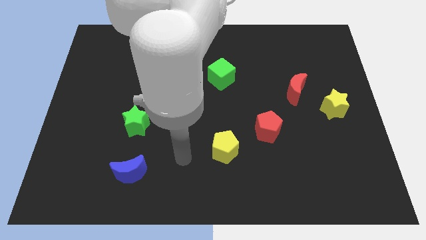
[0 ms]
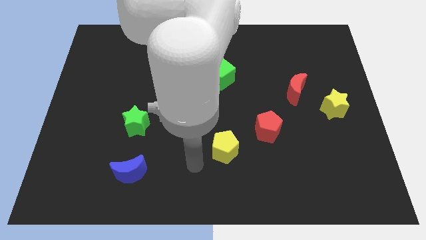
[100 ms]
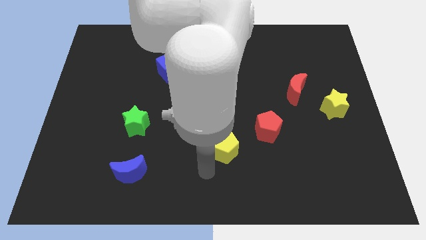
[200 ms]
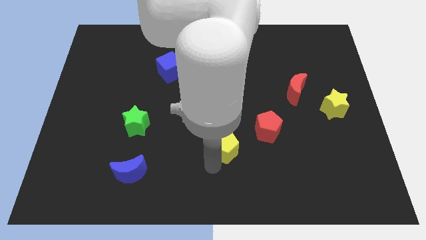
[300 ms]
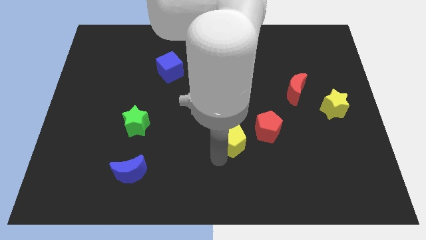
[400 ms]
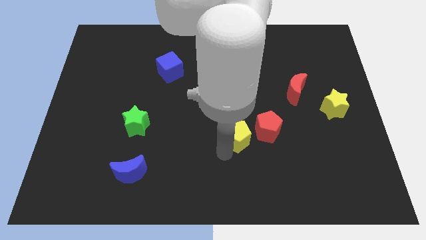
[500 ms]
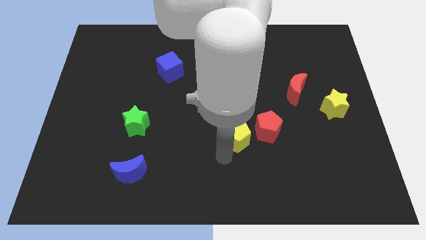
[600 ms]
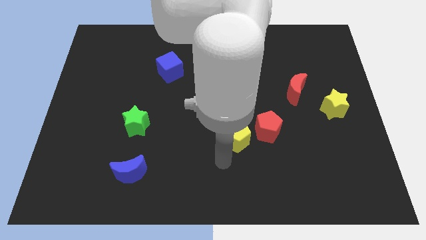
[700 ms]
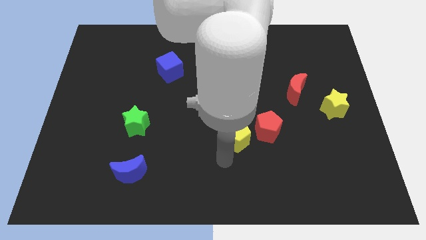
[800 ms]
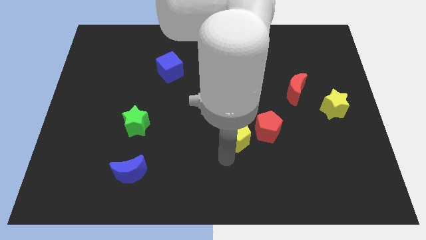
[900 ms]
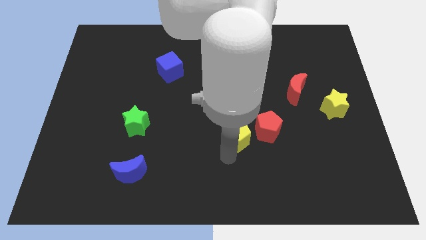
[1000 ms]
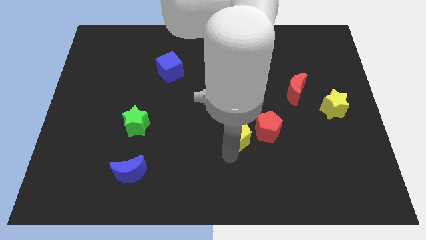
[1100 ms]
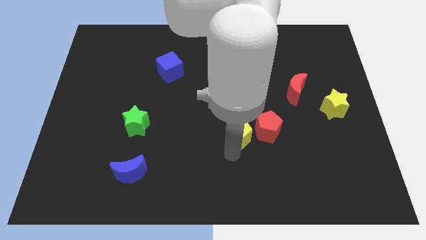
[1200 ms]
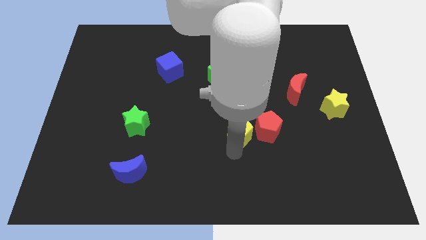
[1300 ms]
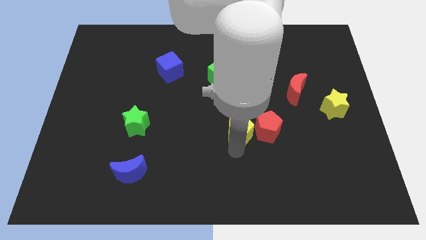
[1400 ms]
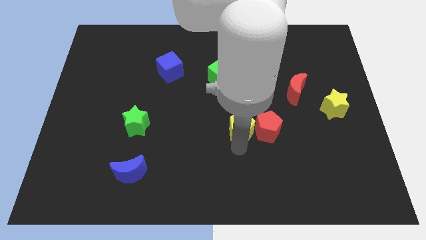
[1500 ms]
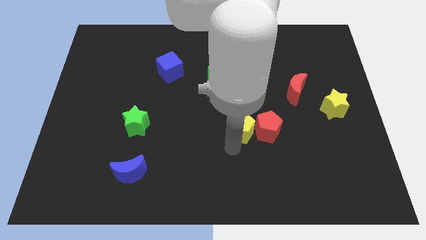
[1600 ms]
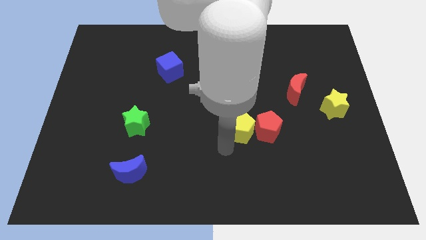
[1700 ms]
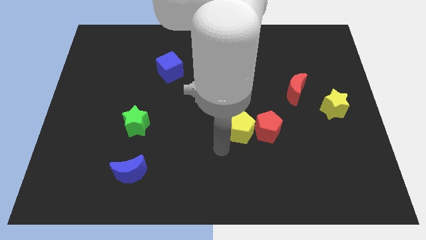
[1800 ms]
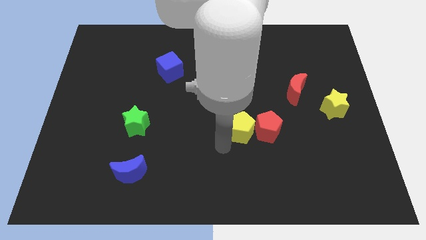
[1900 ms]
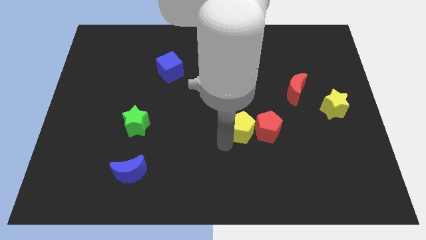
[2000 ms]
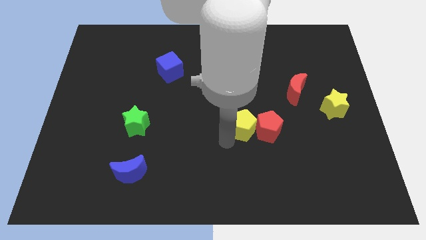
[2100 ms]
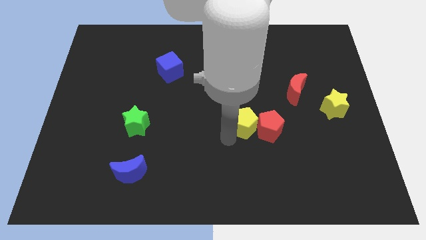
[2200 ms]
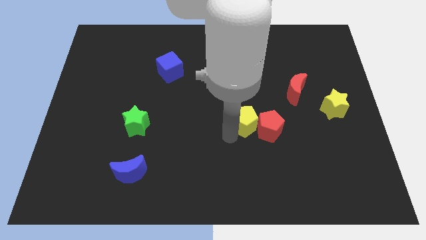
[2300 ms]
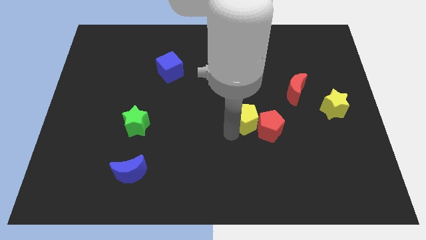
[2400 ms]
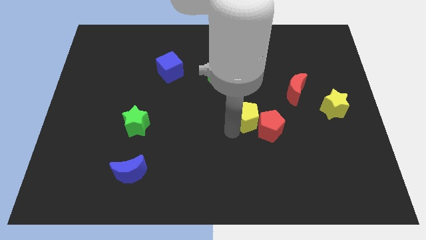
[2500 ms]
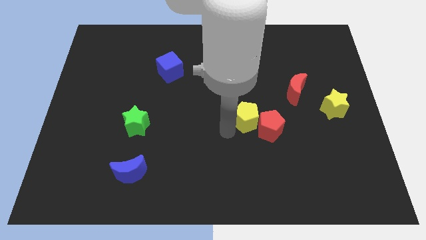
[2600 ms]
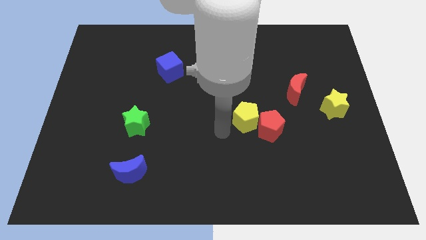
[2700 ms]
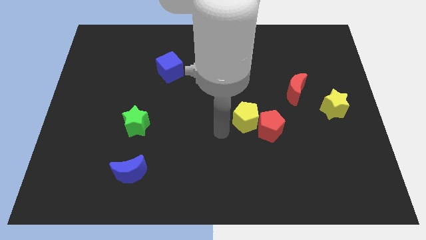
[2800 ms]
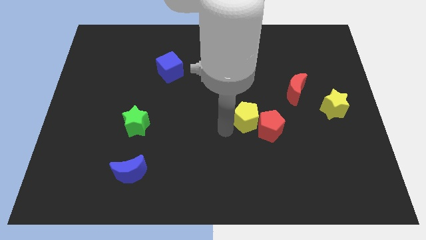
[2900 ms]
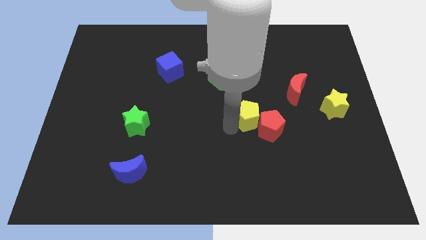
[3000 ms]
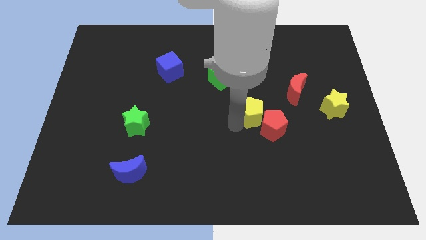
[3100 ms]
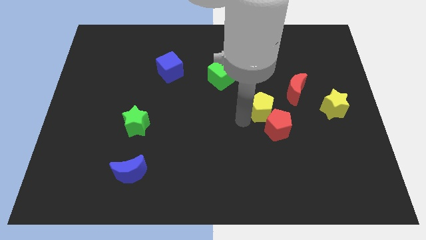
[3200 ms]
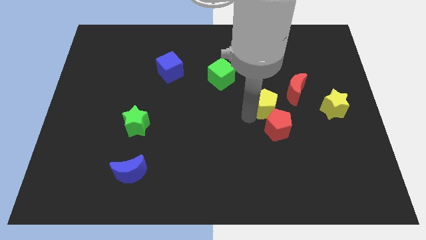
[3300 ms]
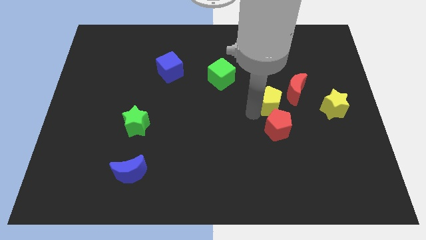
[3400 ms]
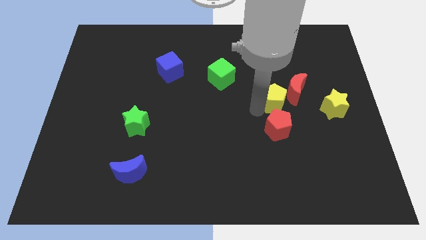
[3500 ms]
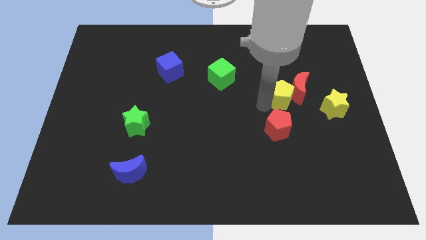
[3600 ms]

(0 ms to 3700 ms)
push the yellow pentagon upwards and right

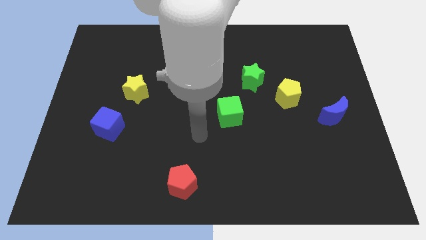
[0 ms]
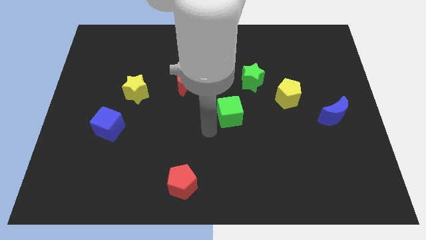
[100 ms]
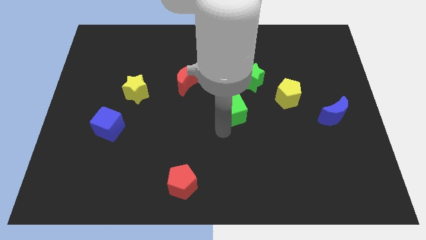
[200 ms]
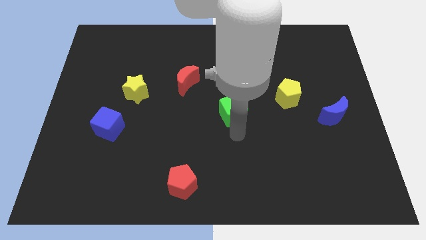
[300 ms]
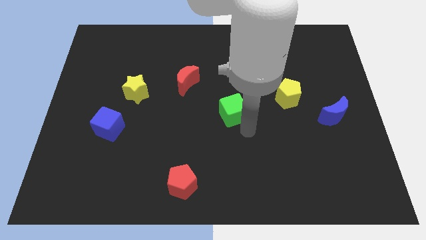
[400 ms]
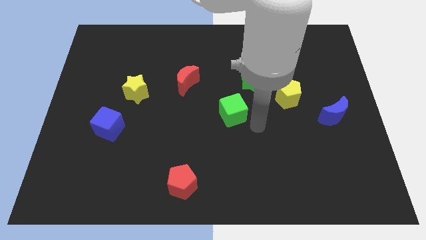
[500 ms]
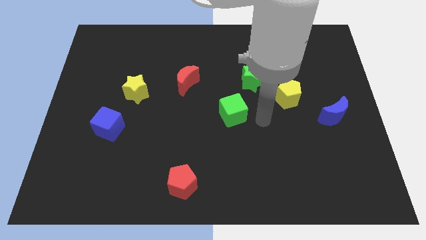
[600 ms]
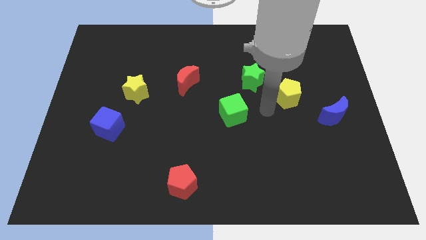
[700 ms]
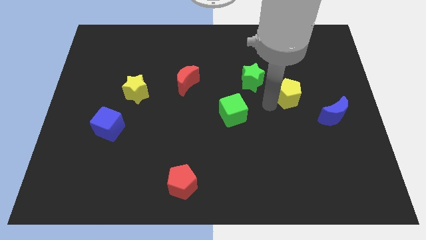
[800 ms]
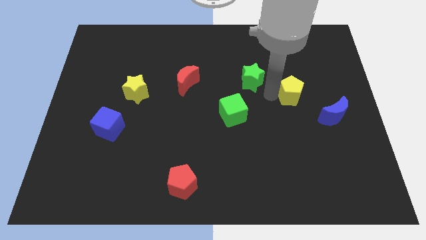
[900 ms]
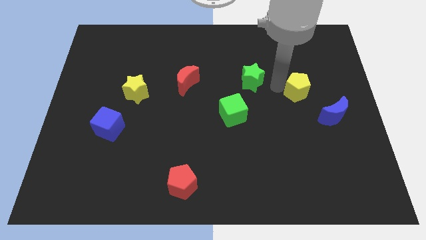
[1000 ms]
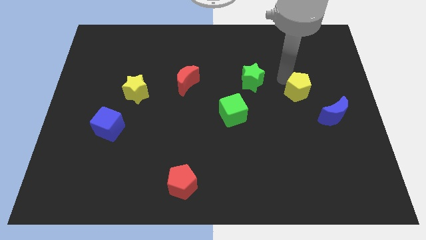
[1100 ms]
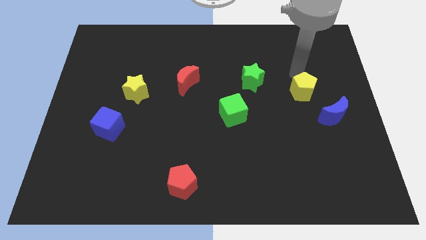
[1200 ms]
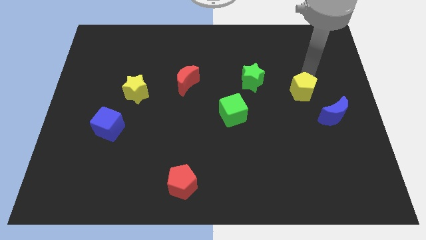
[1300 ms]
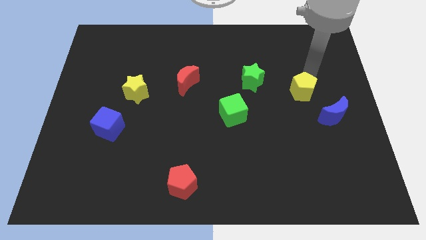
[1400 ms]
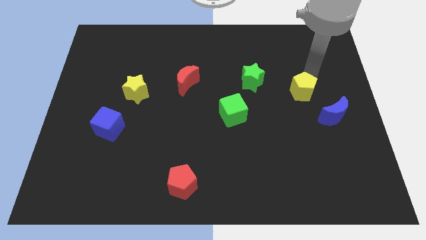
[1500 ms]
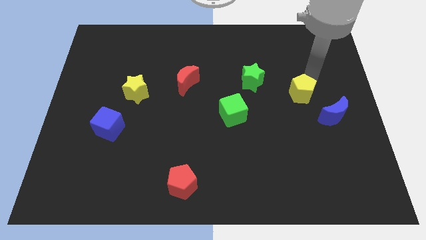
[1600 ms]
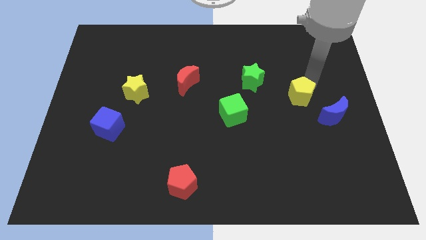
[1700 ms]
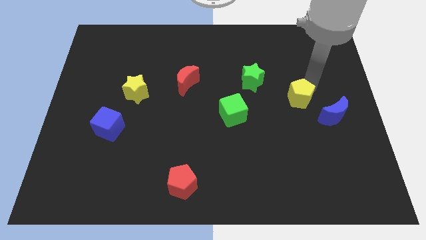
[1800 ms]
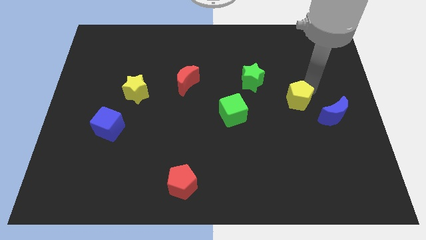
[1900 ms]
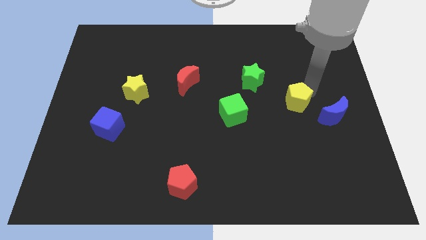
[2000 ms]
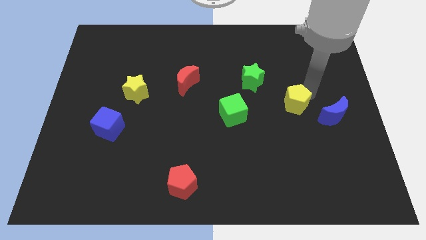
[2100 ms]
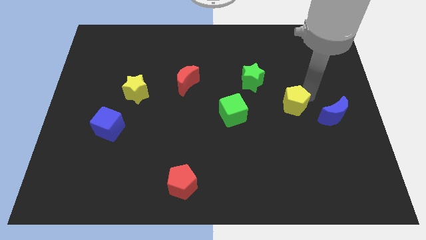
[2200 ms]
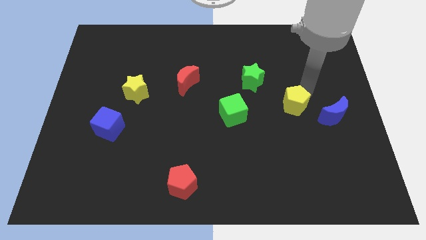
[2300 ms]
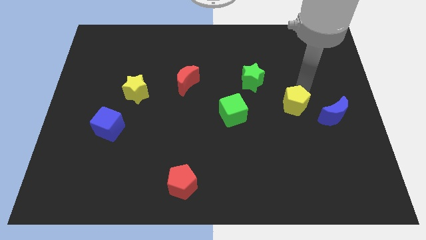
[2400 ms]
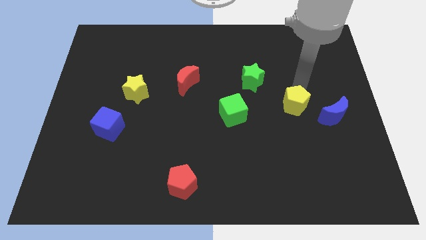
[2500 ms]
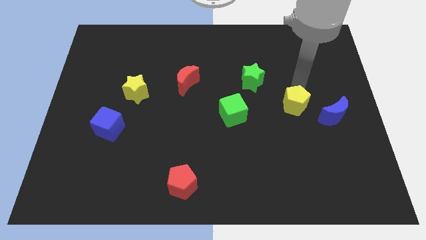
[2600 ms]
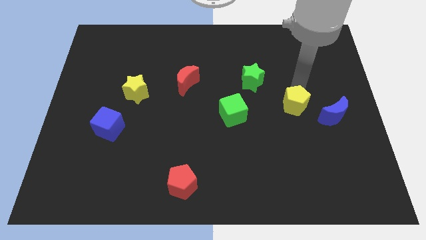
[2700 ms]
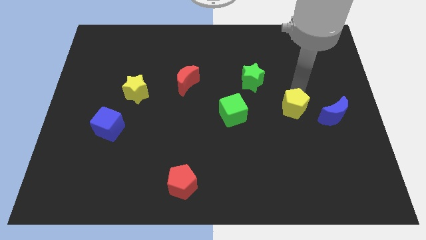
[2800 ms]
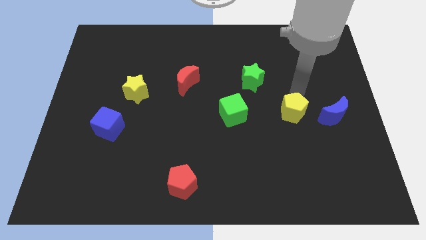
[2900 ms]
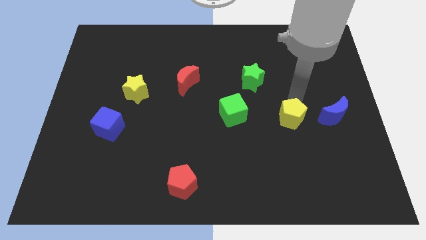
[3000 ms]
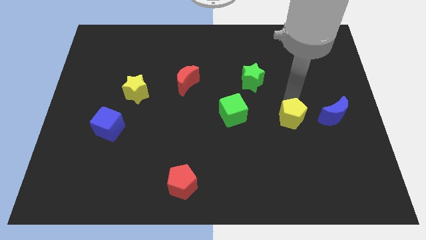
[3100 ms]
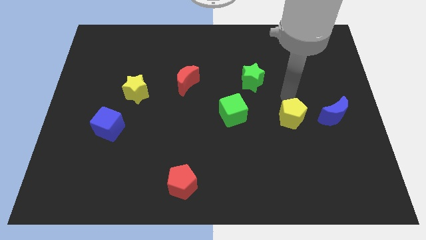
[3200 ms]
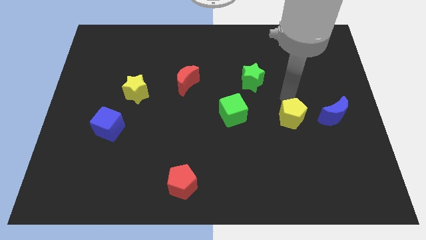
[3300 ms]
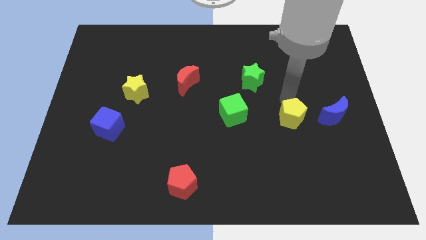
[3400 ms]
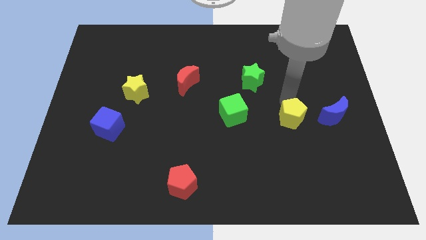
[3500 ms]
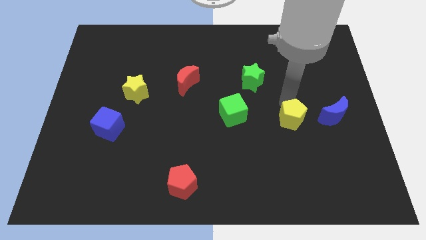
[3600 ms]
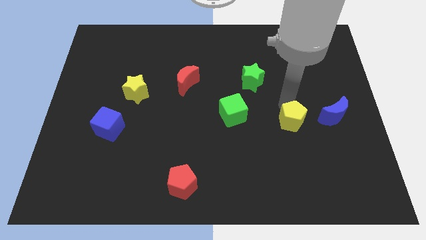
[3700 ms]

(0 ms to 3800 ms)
slide the yellow pentagon down a little bit

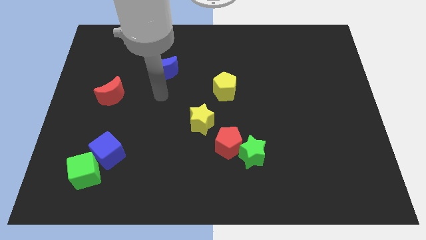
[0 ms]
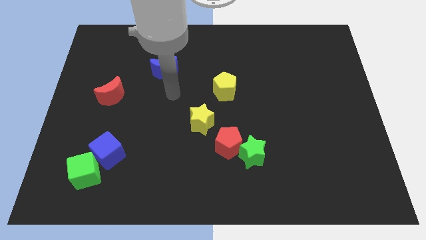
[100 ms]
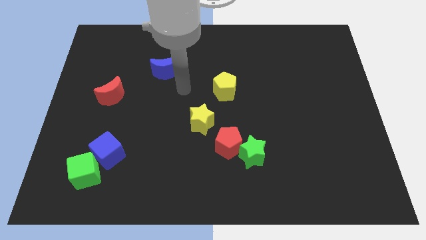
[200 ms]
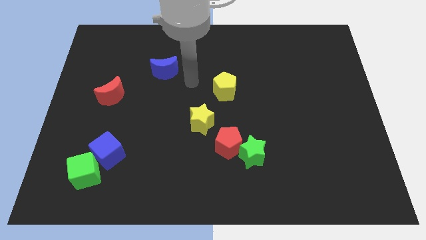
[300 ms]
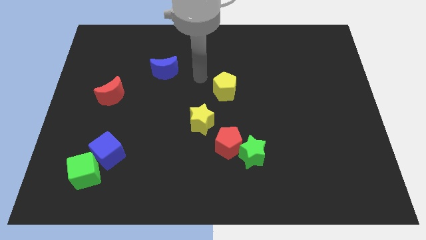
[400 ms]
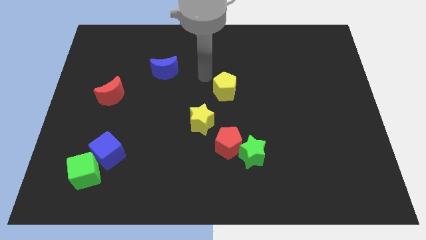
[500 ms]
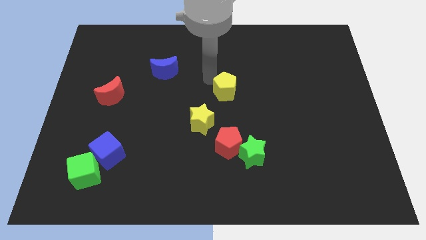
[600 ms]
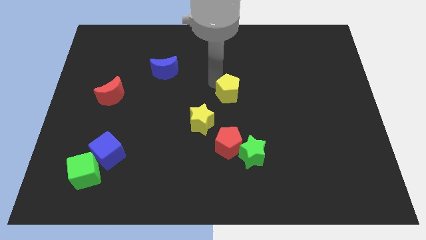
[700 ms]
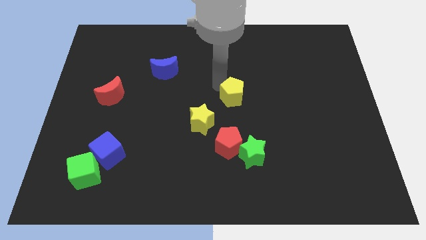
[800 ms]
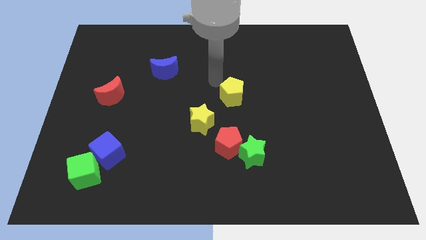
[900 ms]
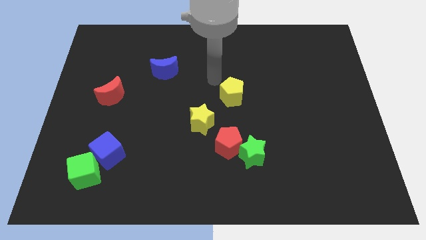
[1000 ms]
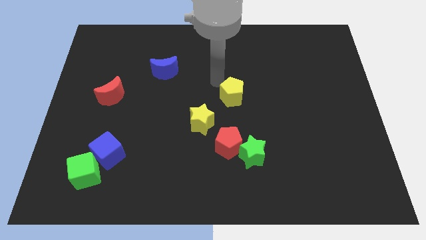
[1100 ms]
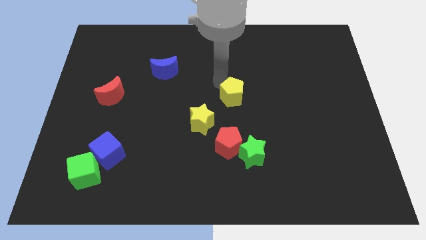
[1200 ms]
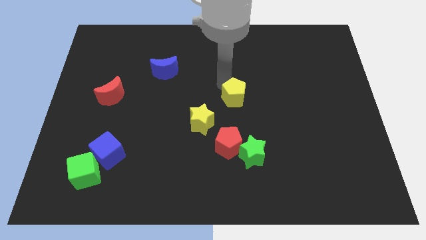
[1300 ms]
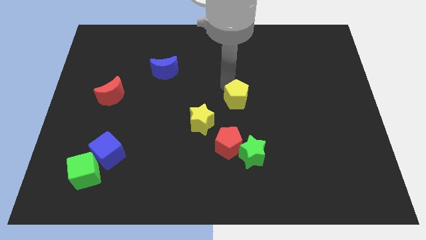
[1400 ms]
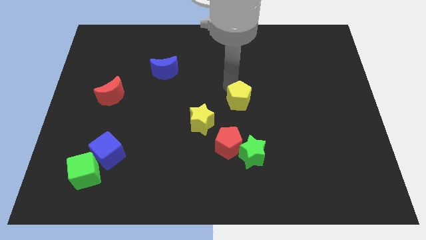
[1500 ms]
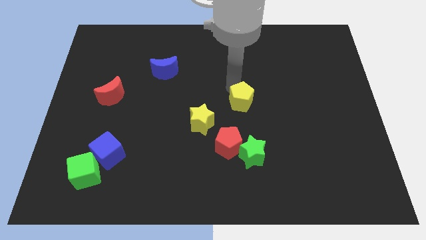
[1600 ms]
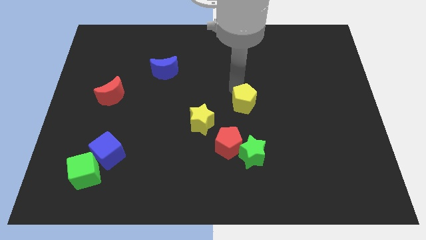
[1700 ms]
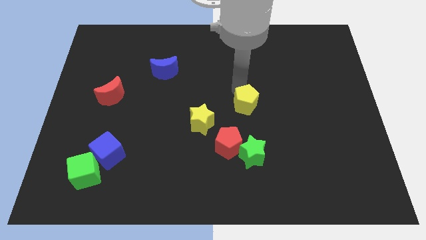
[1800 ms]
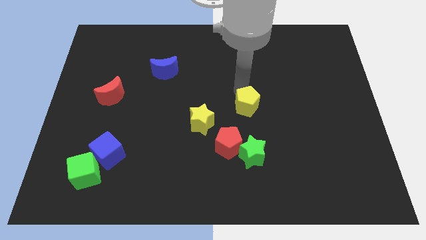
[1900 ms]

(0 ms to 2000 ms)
move the yellow pentagon down and then right somewhat
